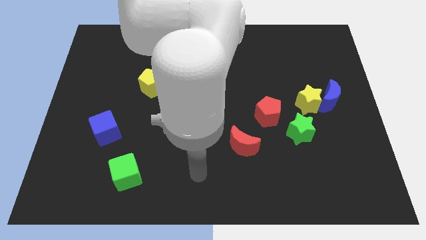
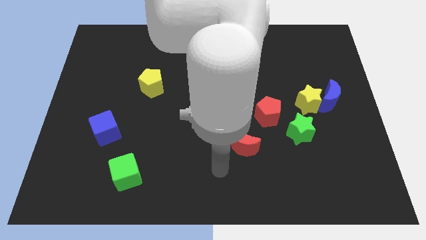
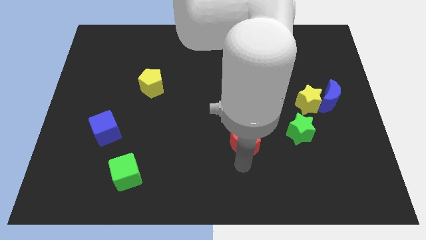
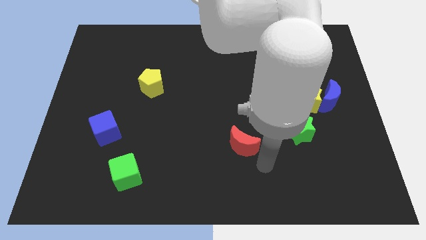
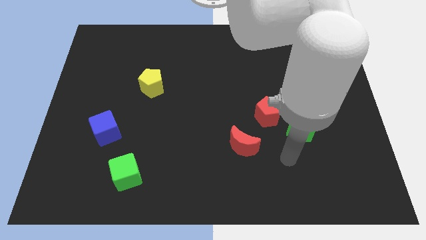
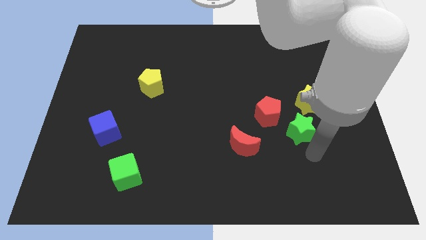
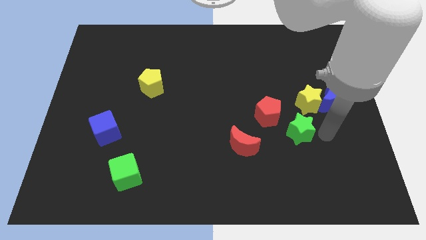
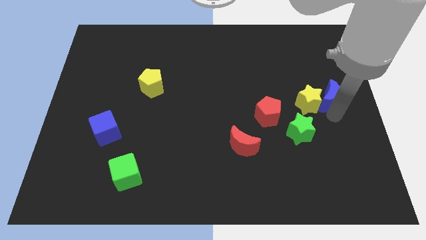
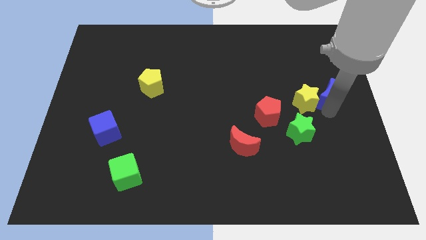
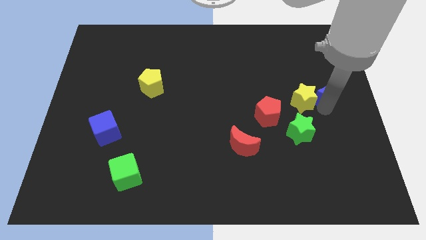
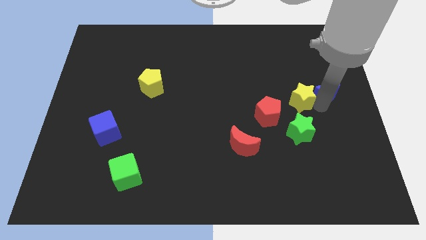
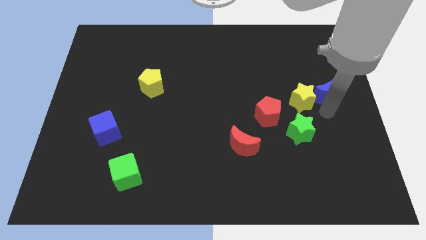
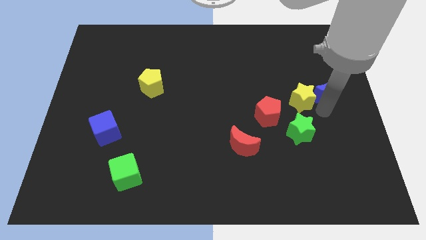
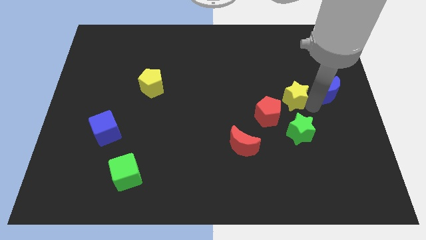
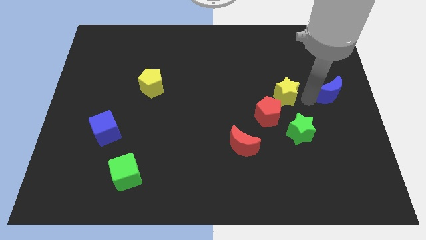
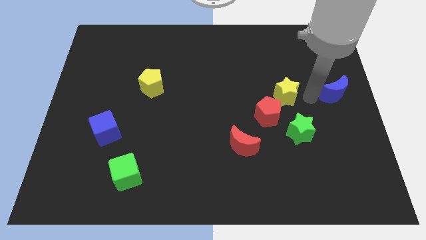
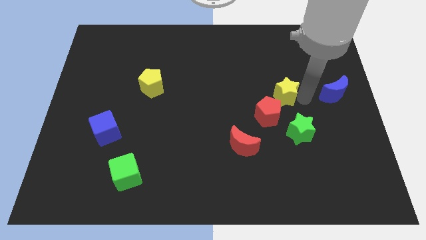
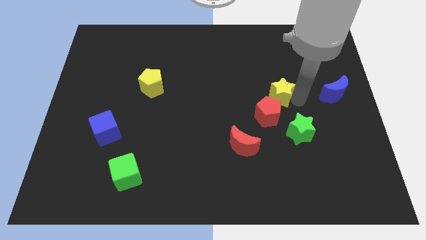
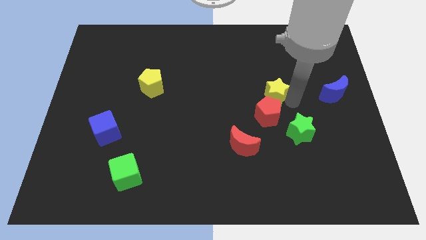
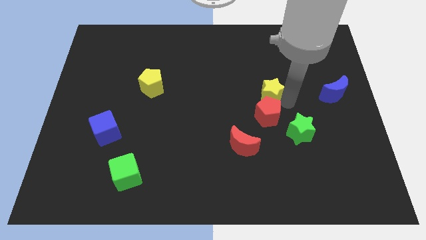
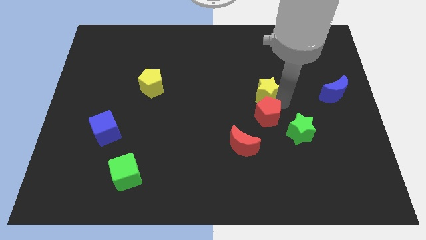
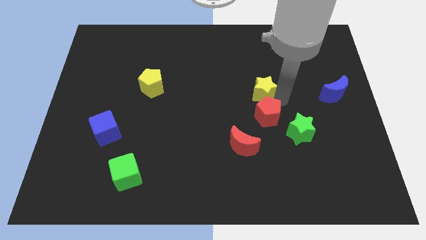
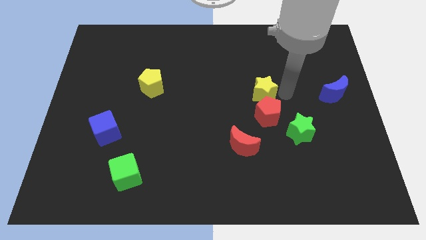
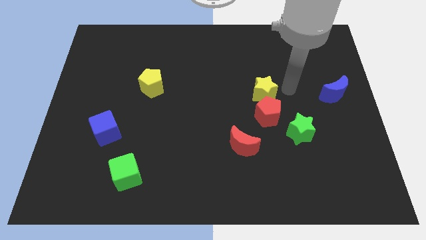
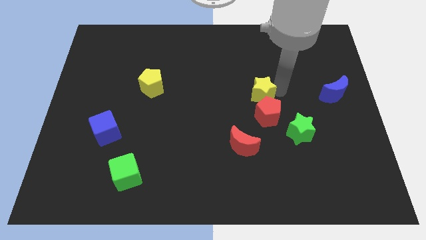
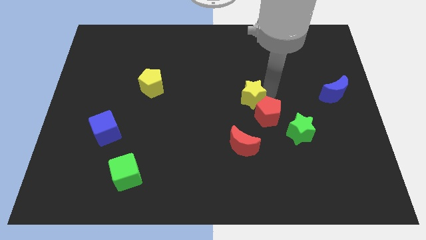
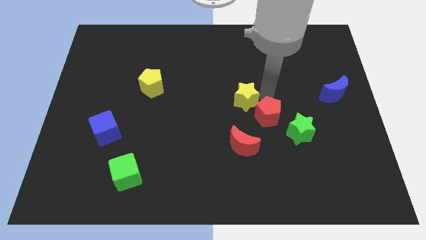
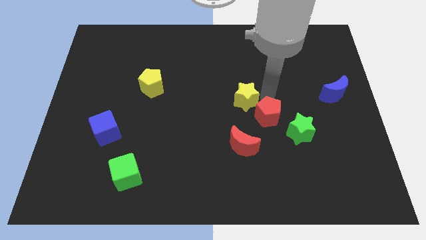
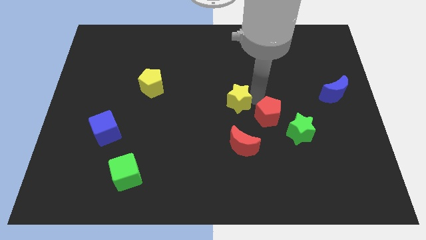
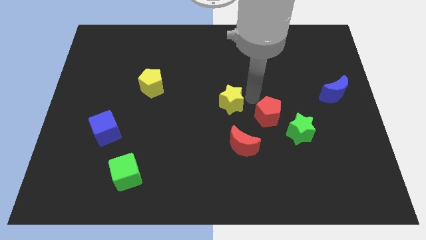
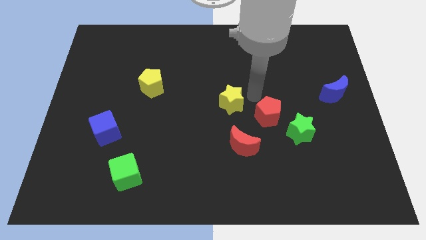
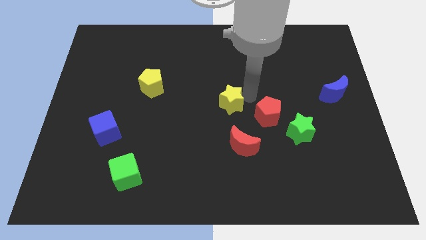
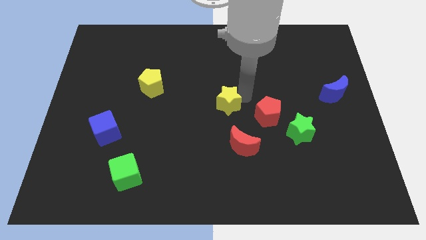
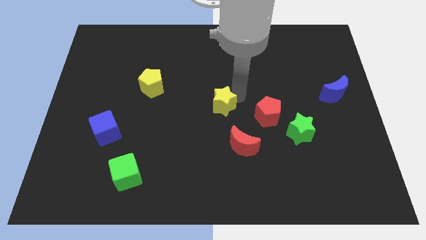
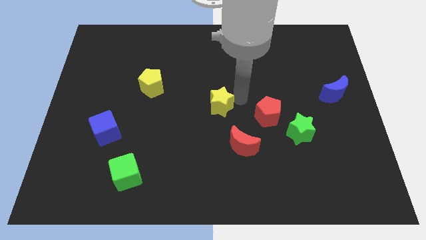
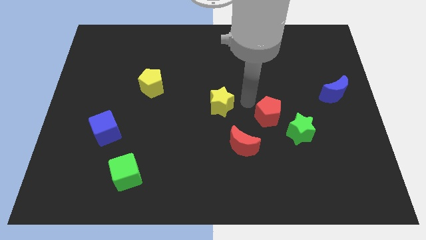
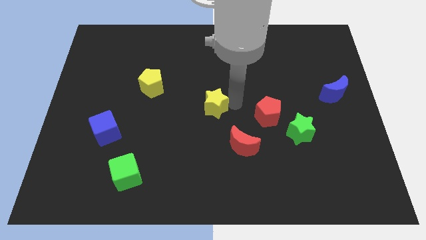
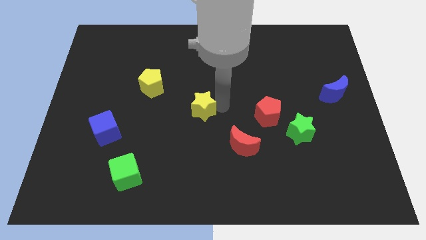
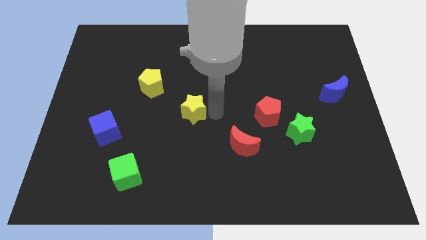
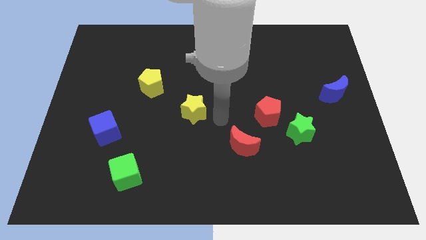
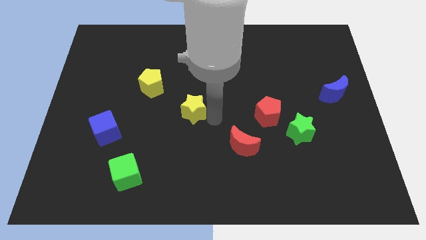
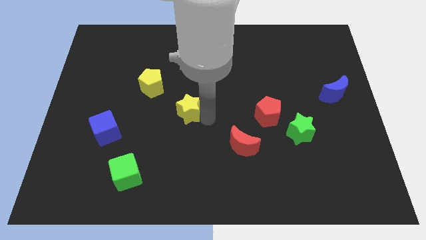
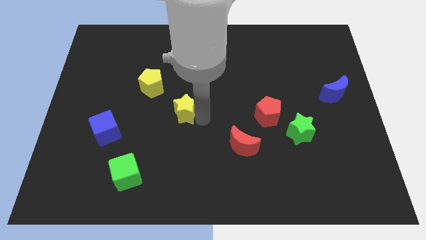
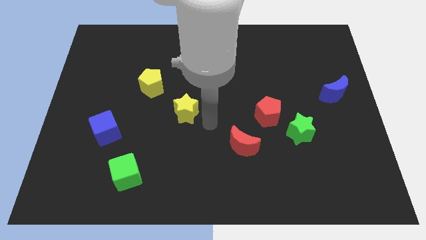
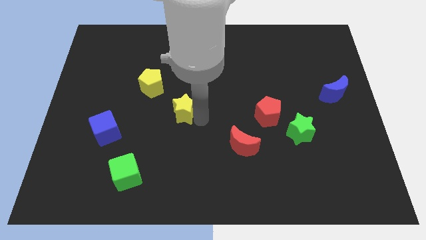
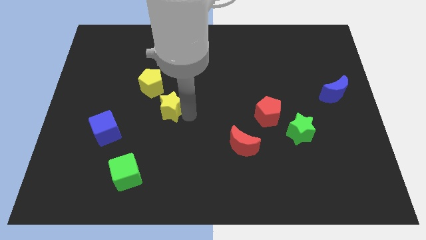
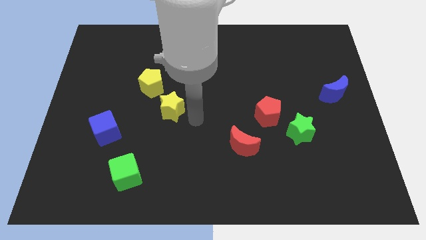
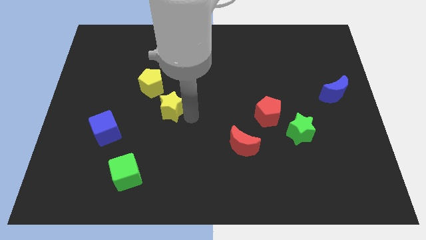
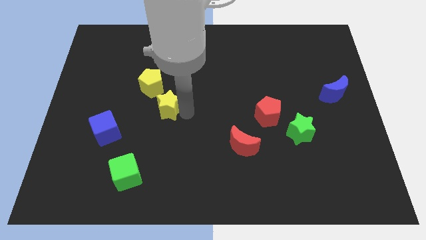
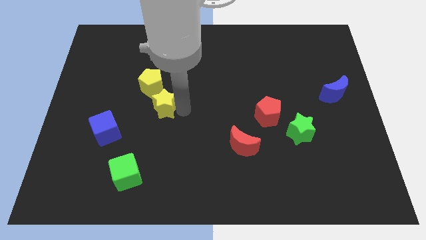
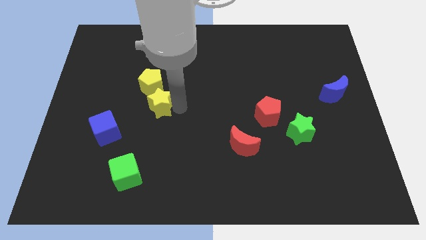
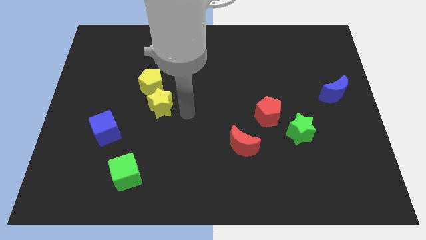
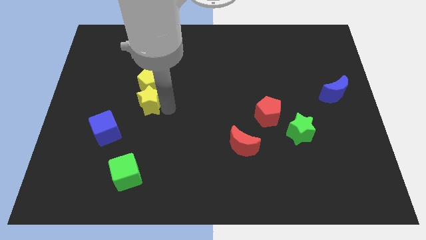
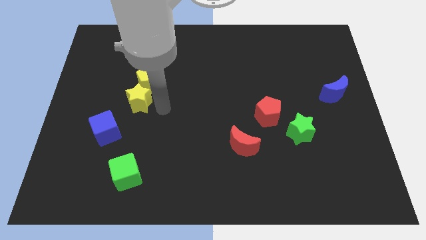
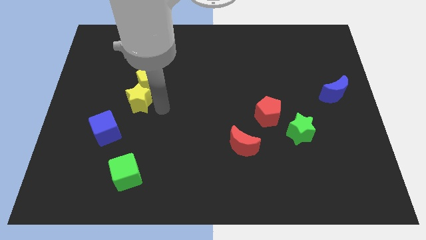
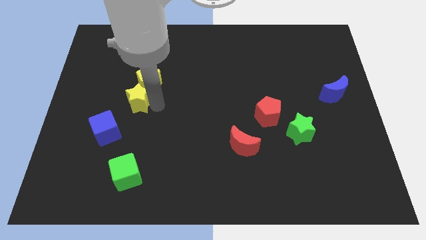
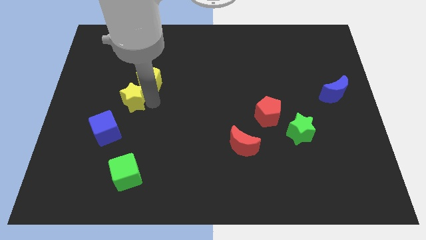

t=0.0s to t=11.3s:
put the yellow star above the blue cube
